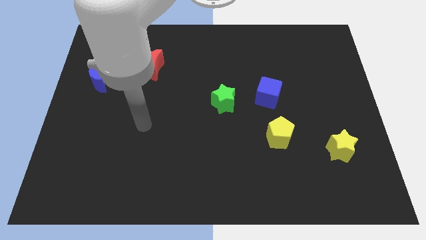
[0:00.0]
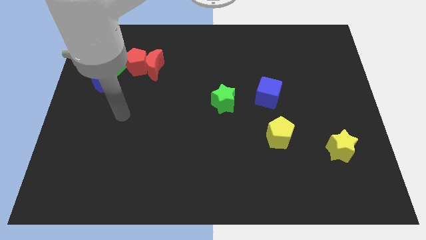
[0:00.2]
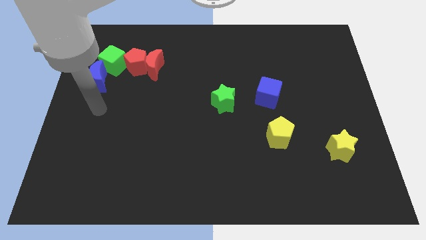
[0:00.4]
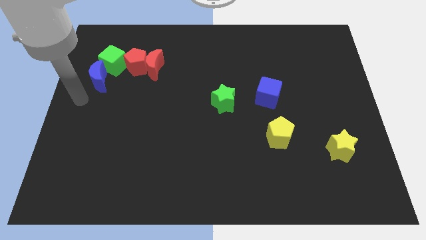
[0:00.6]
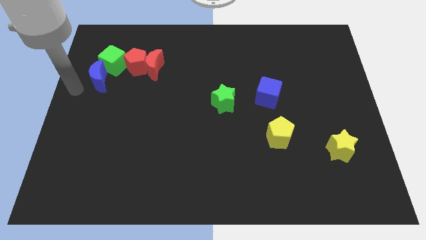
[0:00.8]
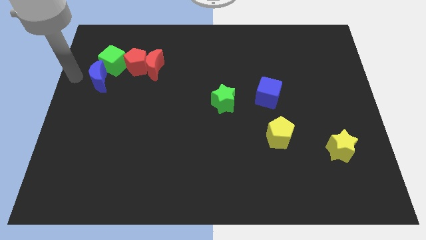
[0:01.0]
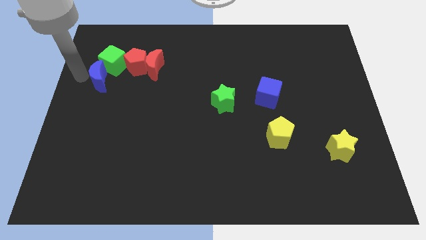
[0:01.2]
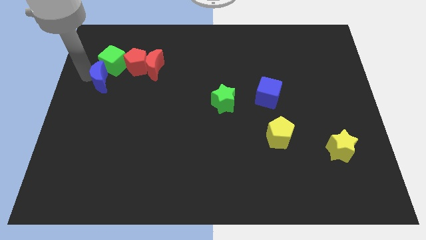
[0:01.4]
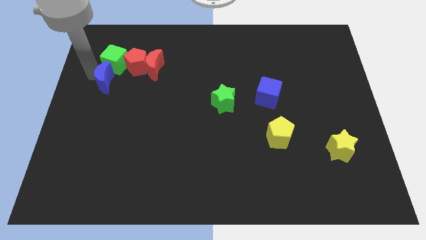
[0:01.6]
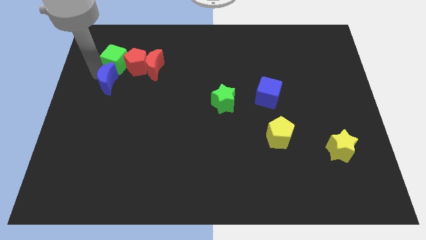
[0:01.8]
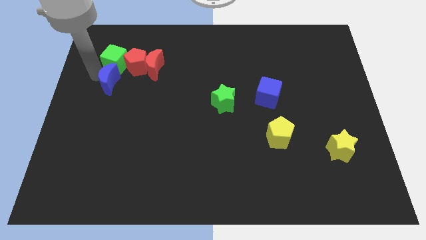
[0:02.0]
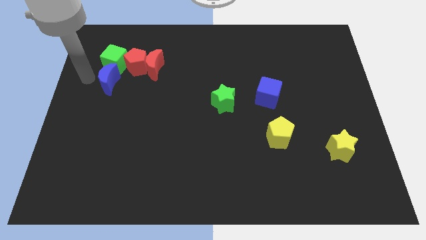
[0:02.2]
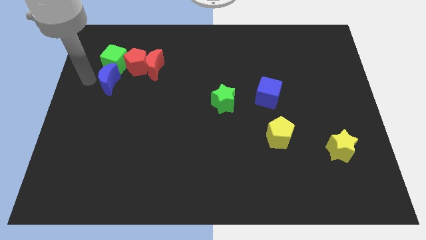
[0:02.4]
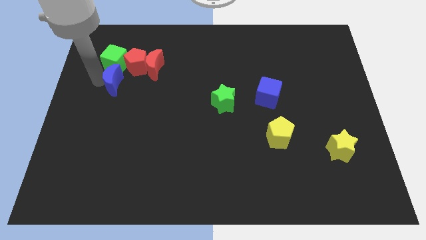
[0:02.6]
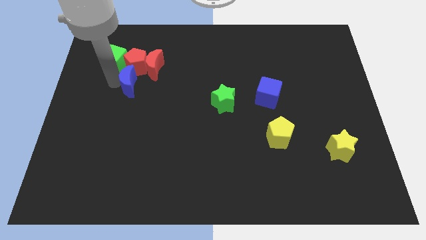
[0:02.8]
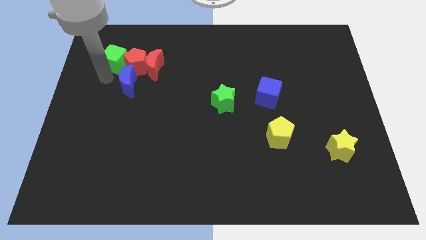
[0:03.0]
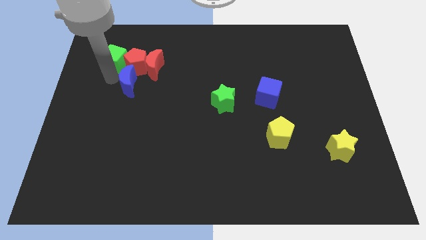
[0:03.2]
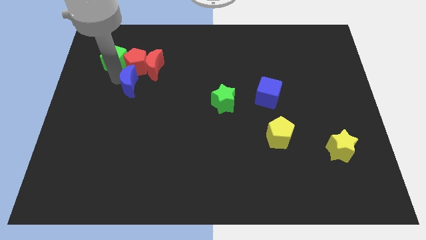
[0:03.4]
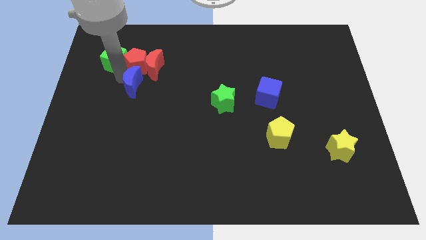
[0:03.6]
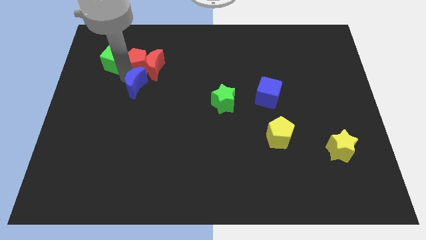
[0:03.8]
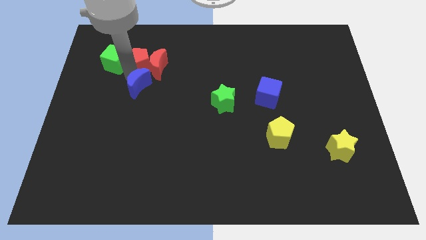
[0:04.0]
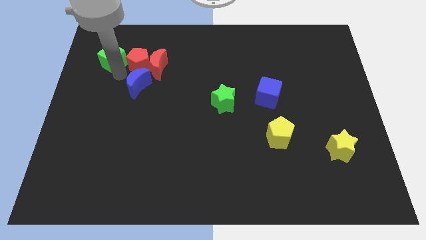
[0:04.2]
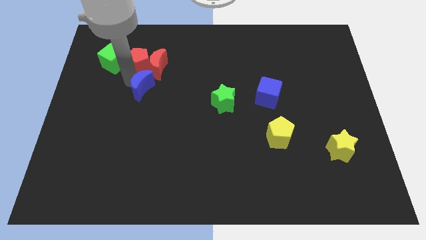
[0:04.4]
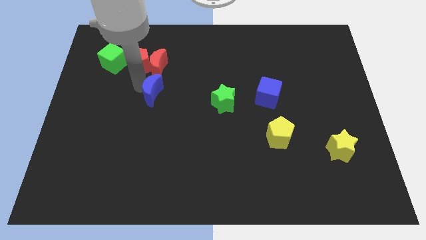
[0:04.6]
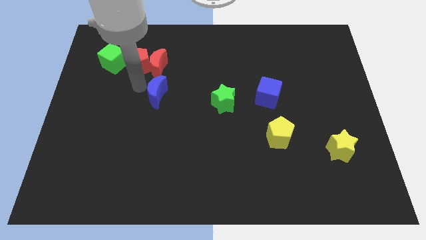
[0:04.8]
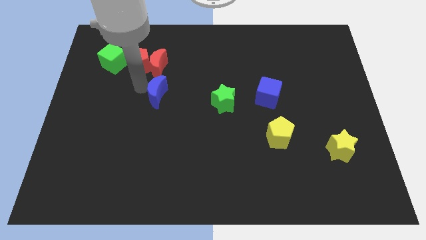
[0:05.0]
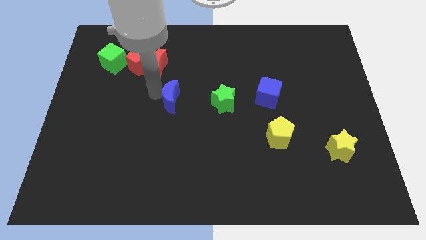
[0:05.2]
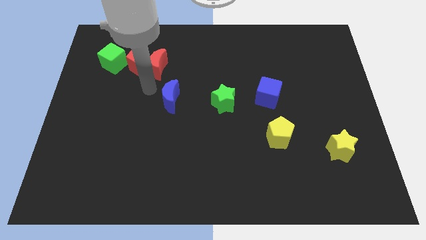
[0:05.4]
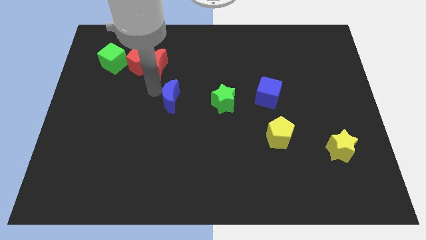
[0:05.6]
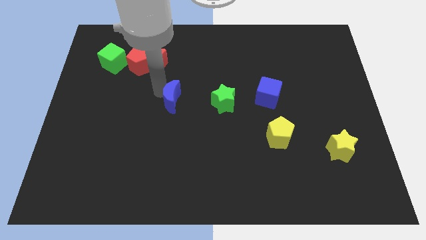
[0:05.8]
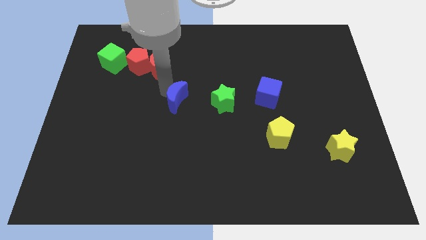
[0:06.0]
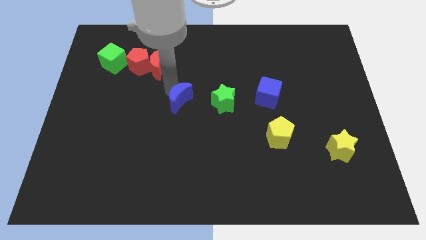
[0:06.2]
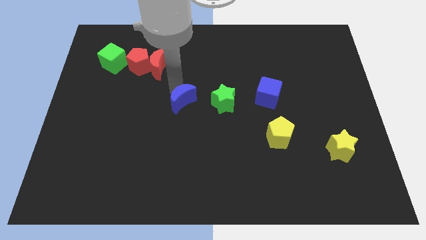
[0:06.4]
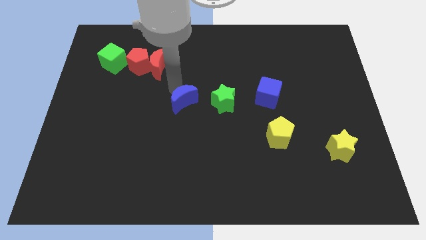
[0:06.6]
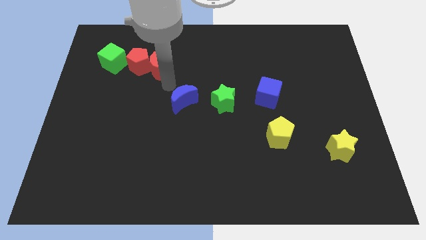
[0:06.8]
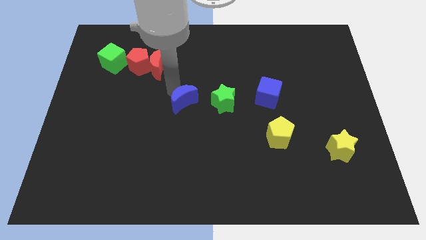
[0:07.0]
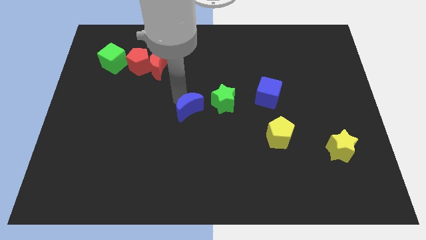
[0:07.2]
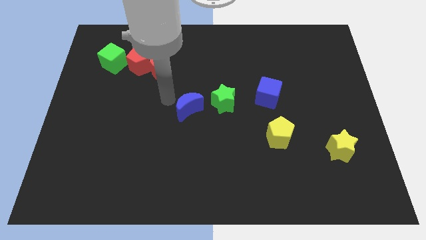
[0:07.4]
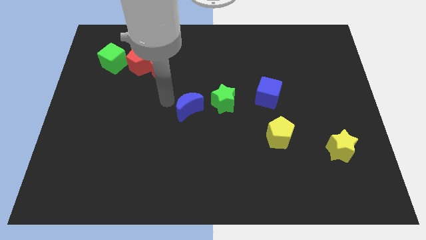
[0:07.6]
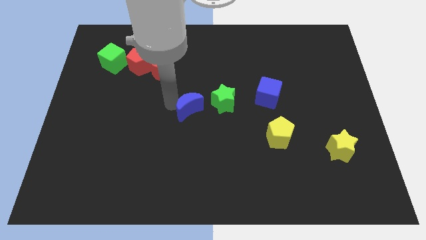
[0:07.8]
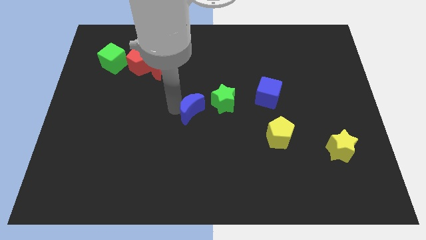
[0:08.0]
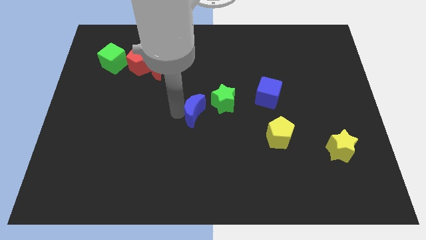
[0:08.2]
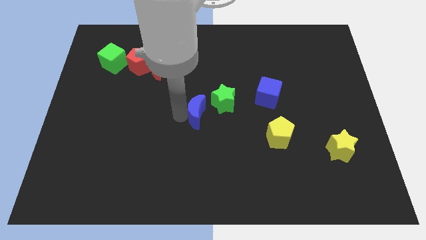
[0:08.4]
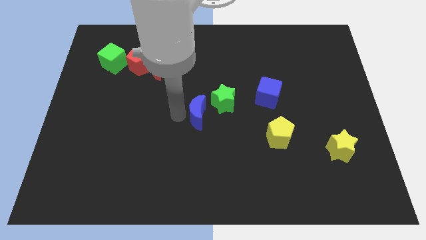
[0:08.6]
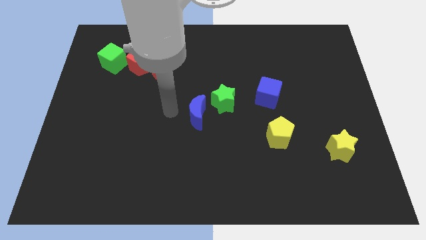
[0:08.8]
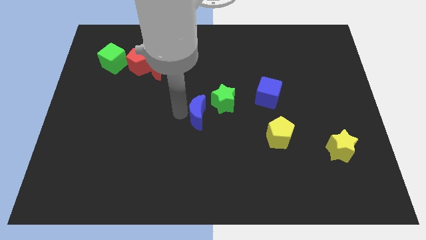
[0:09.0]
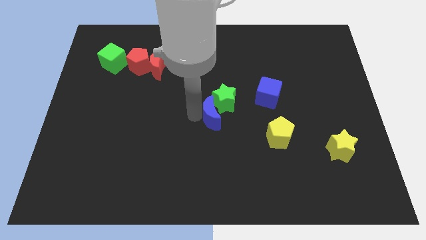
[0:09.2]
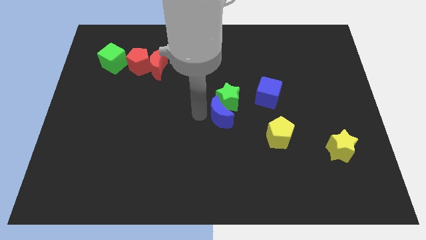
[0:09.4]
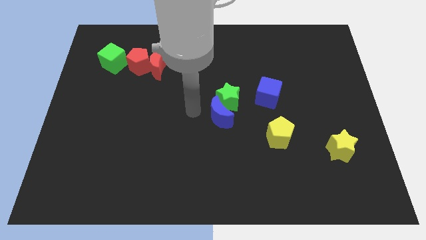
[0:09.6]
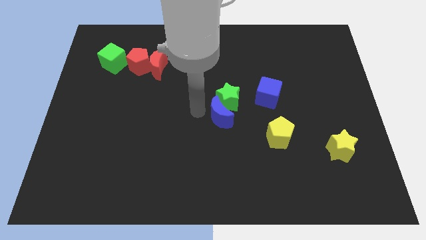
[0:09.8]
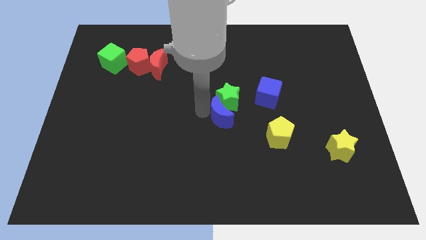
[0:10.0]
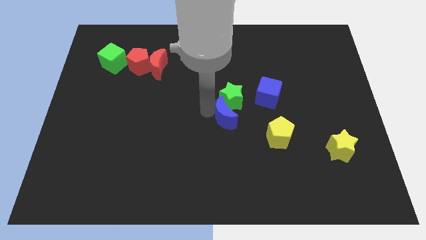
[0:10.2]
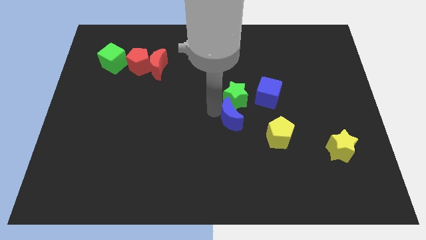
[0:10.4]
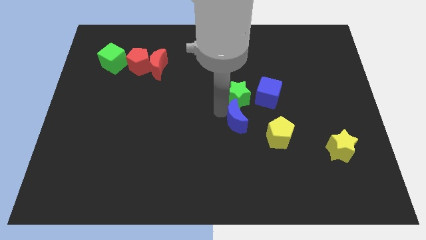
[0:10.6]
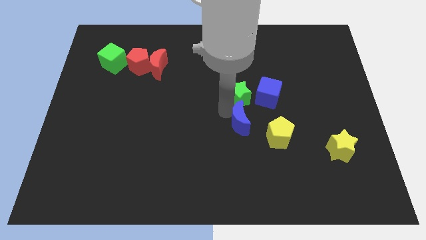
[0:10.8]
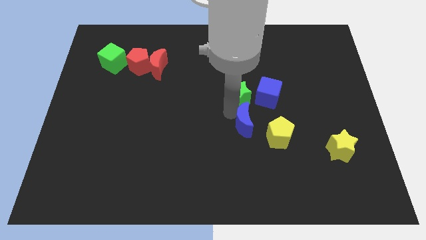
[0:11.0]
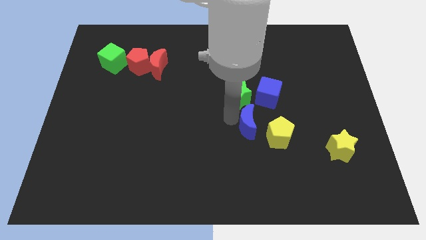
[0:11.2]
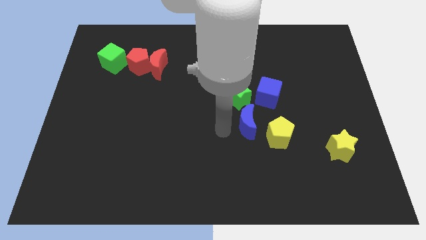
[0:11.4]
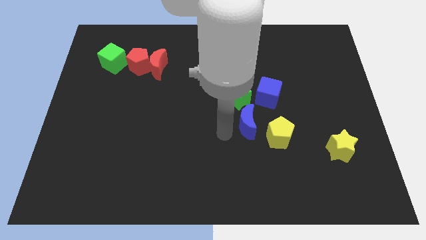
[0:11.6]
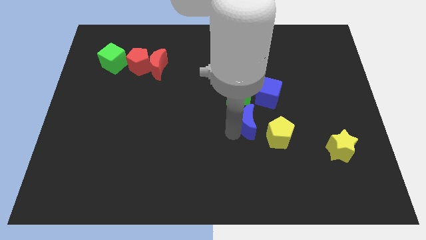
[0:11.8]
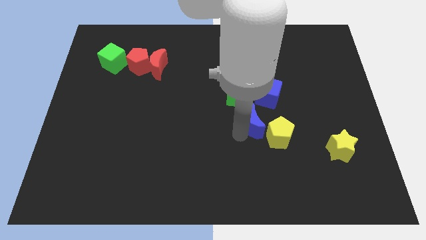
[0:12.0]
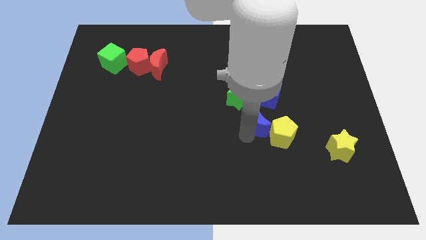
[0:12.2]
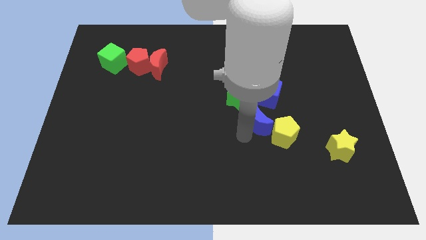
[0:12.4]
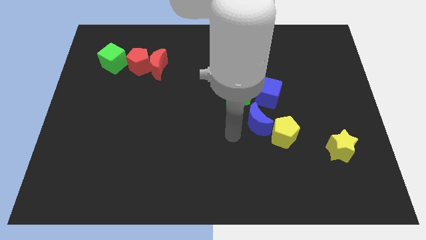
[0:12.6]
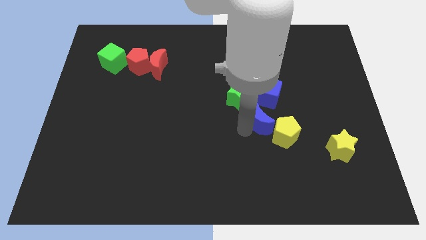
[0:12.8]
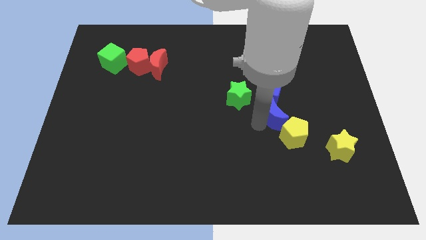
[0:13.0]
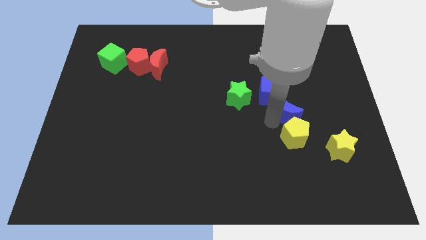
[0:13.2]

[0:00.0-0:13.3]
put the blue moon to the right side of the green star

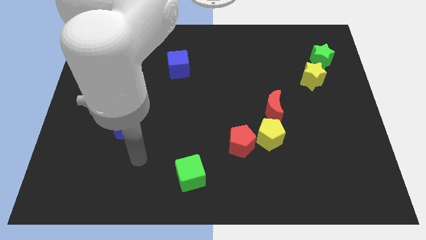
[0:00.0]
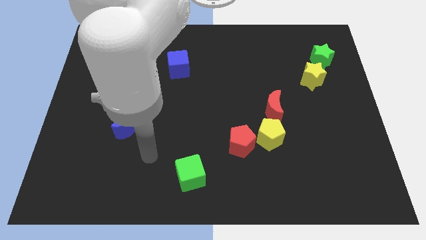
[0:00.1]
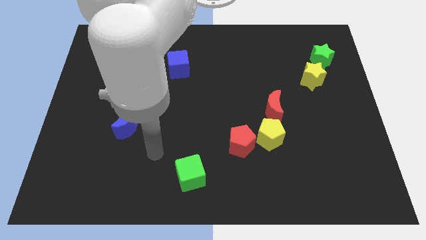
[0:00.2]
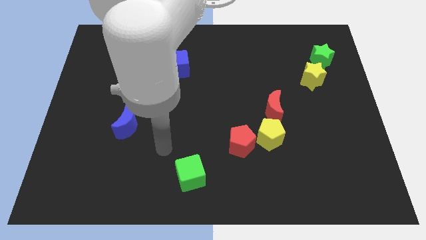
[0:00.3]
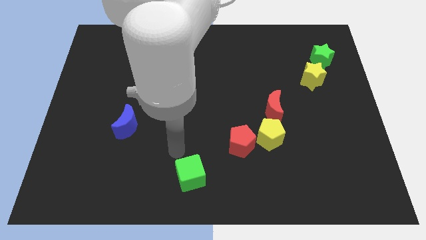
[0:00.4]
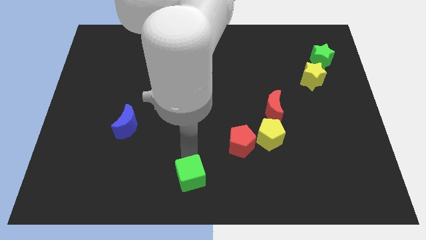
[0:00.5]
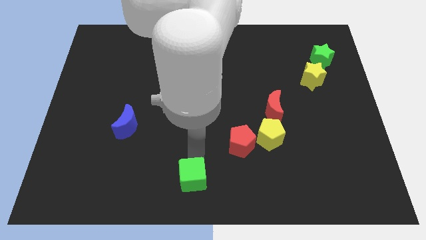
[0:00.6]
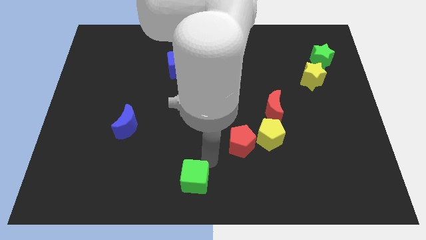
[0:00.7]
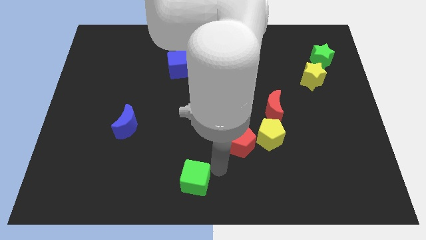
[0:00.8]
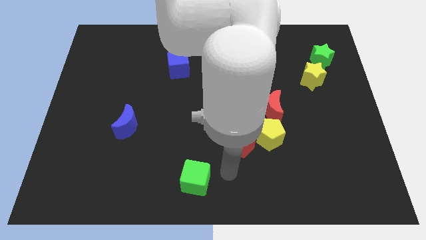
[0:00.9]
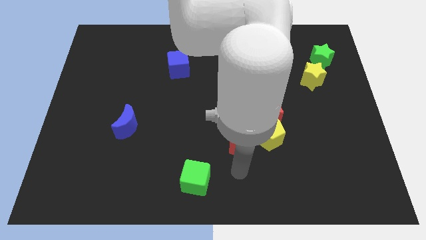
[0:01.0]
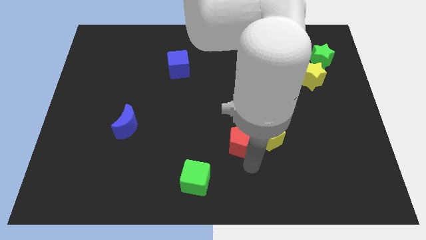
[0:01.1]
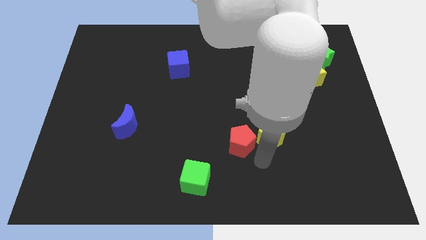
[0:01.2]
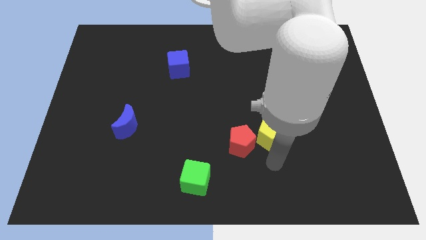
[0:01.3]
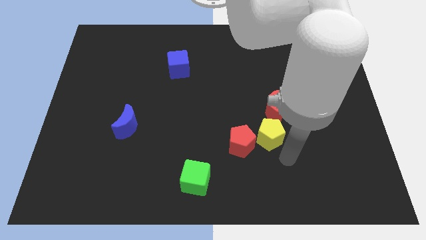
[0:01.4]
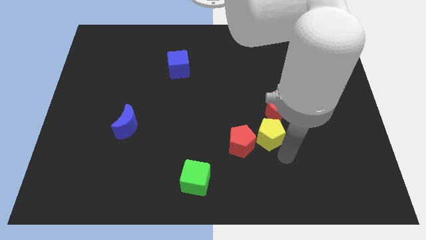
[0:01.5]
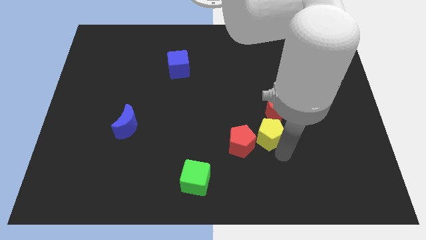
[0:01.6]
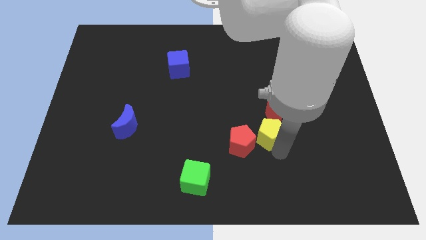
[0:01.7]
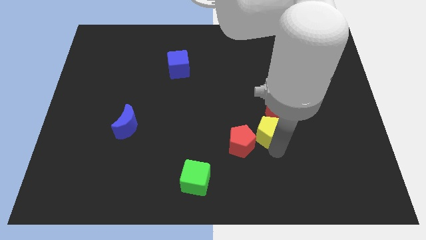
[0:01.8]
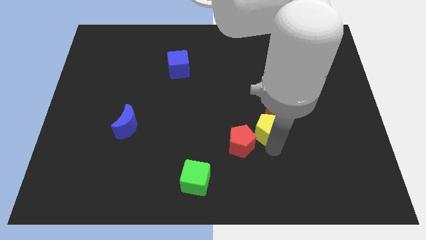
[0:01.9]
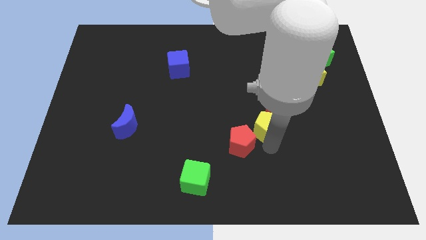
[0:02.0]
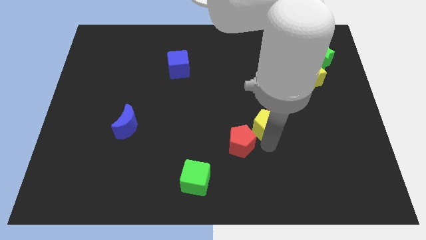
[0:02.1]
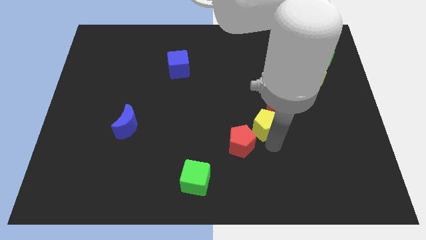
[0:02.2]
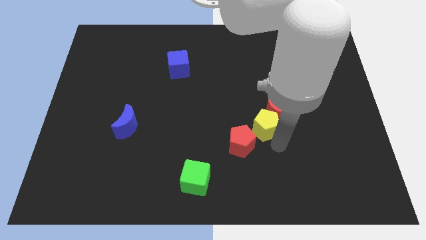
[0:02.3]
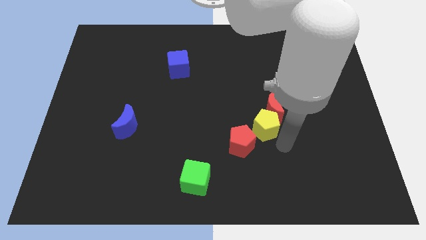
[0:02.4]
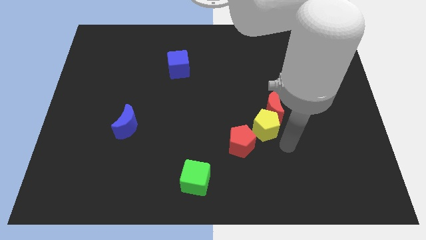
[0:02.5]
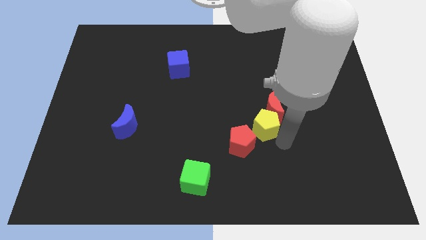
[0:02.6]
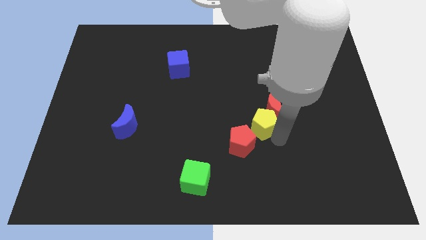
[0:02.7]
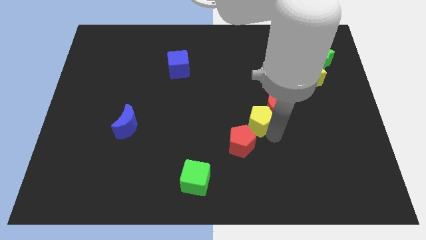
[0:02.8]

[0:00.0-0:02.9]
slide the yellow pentagon above the red pentagon
